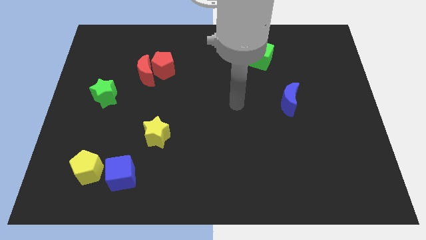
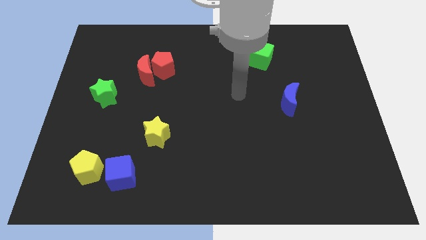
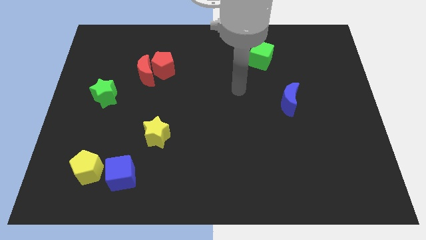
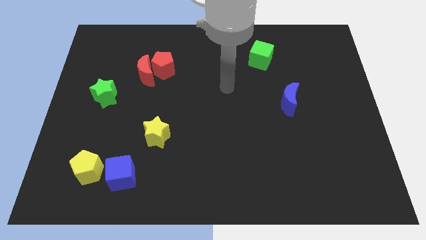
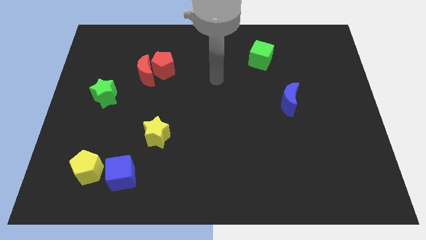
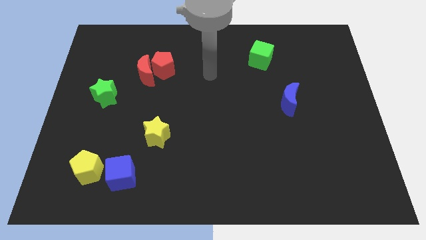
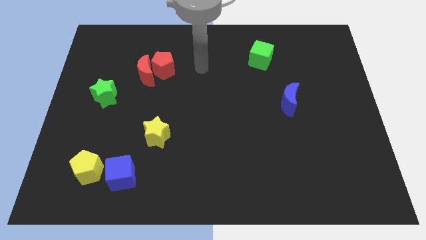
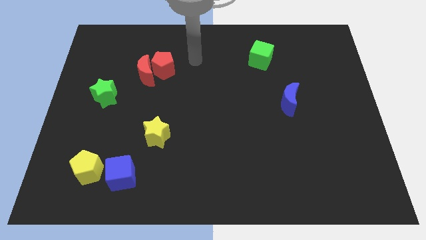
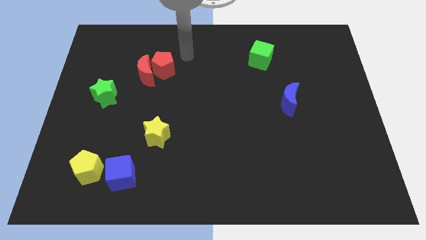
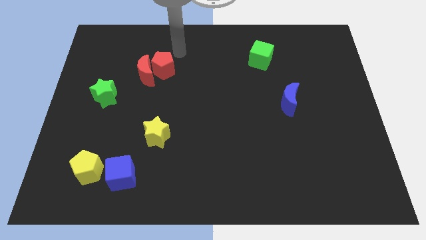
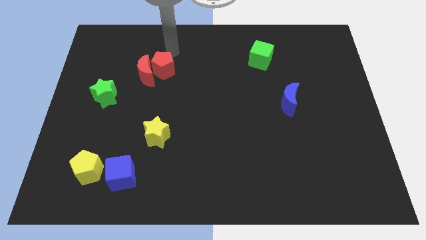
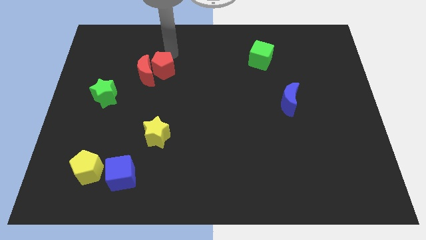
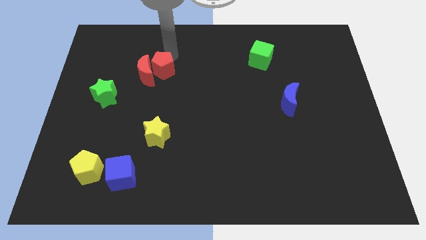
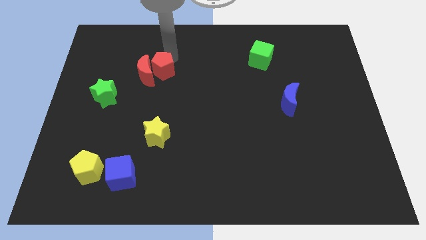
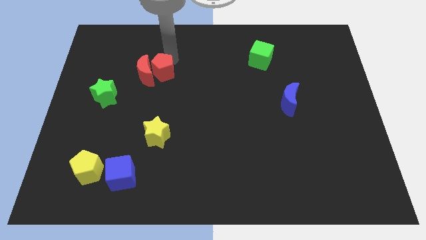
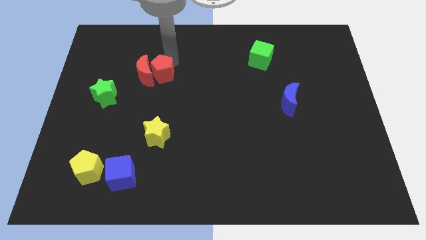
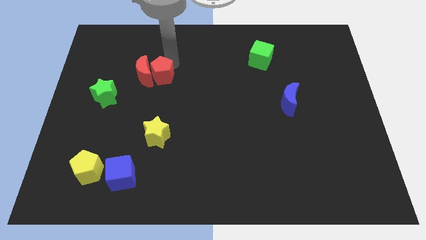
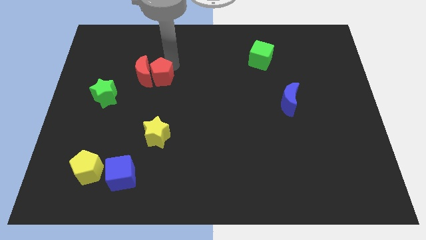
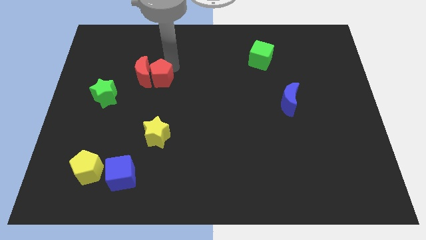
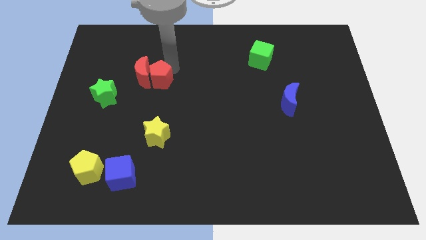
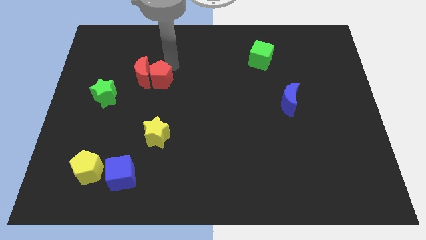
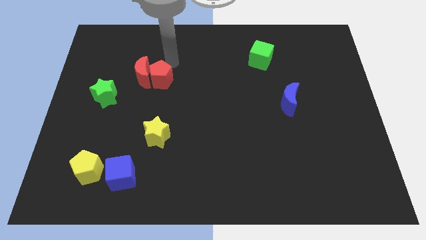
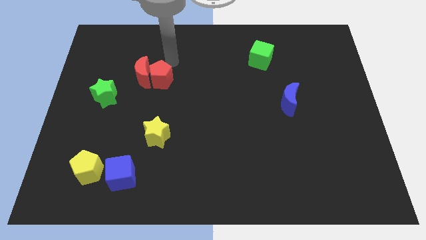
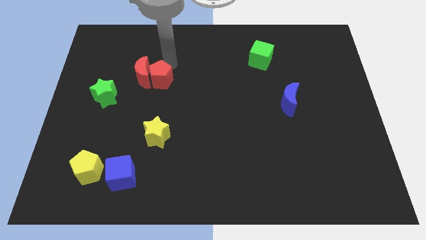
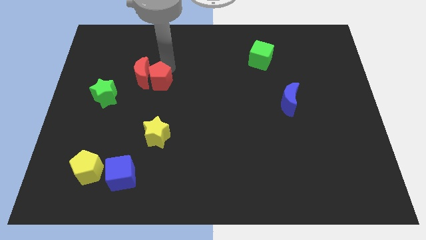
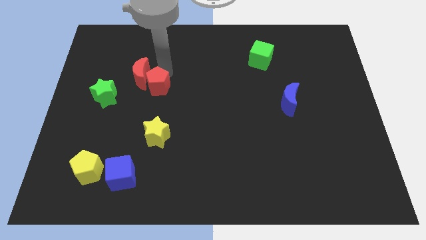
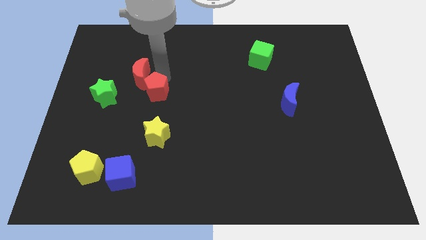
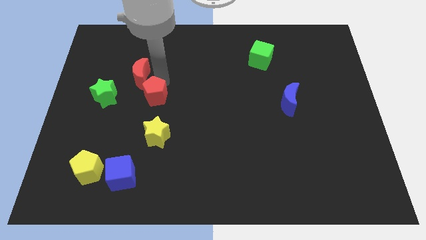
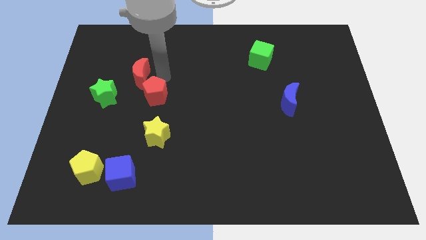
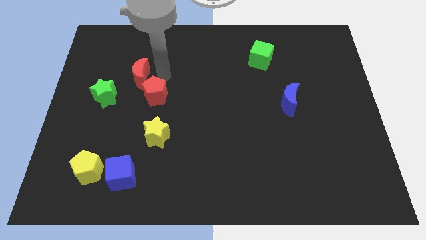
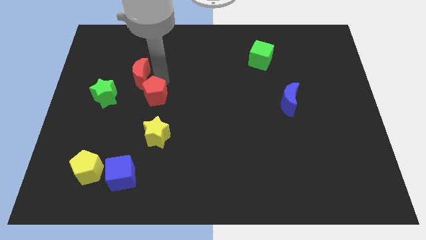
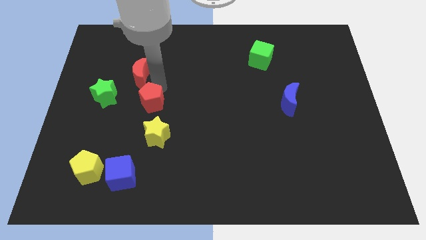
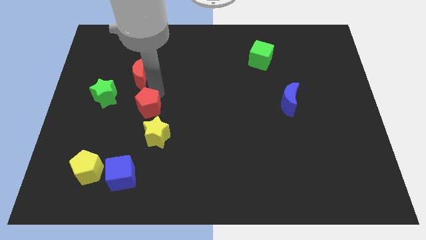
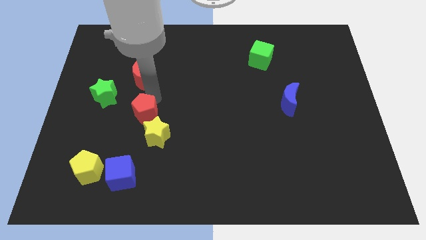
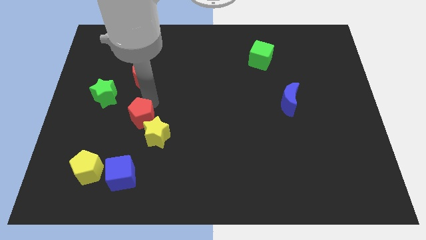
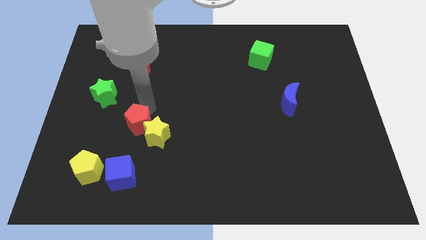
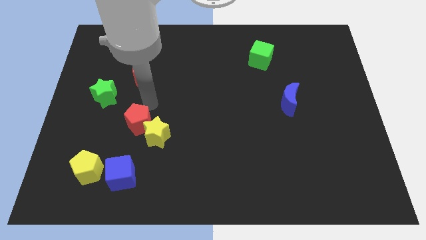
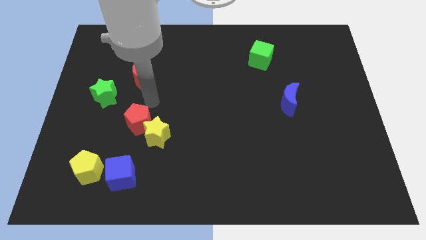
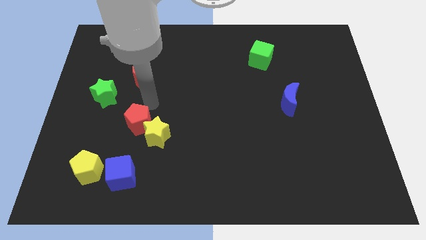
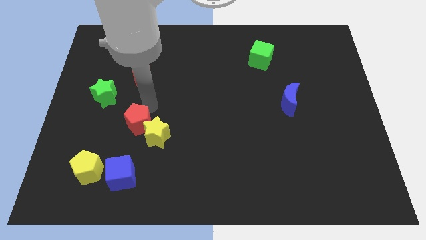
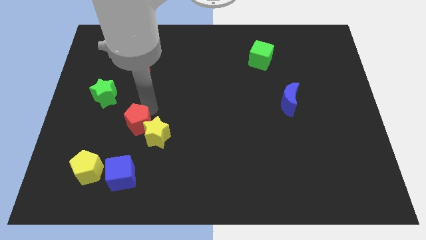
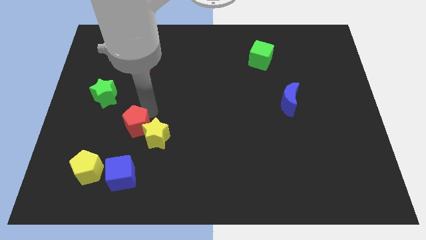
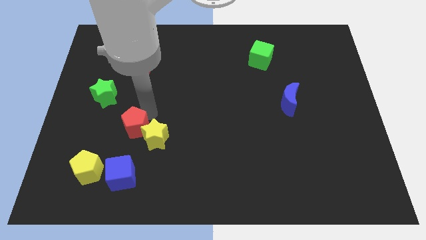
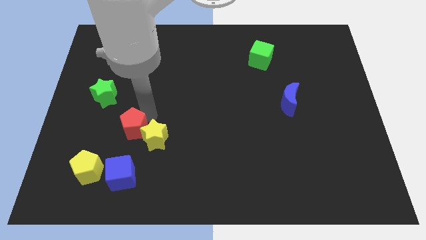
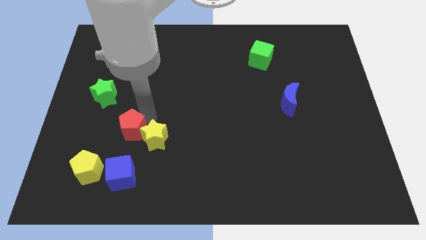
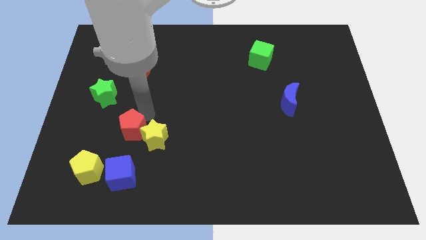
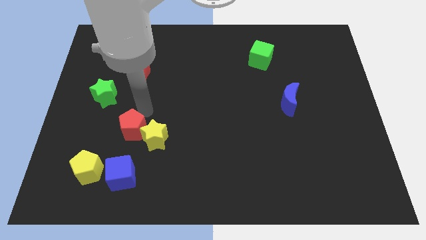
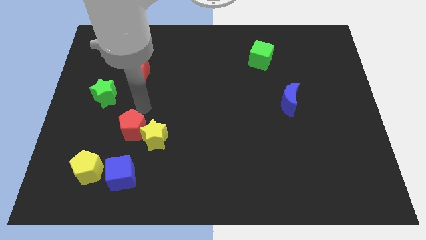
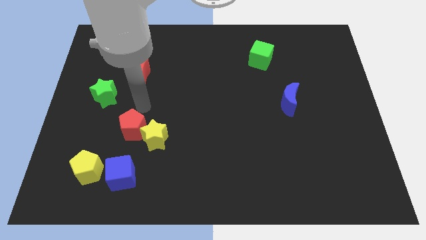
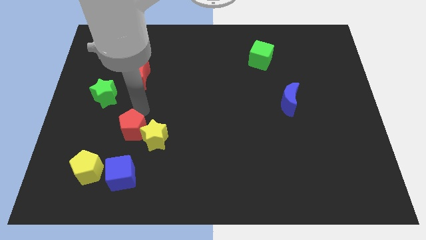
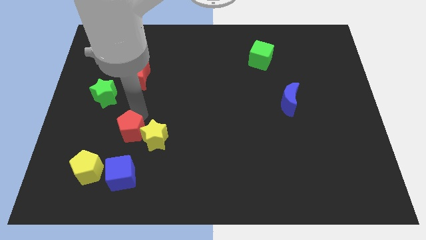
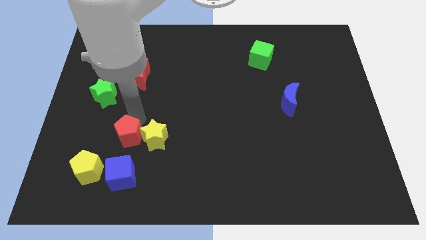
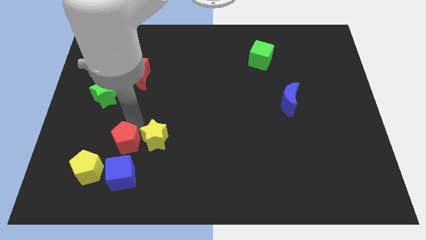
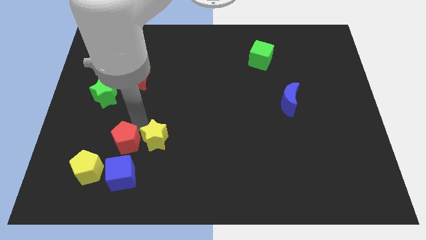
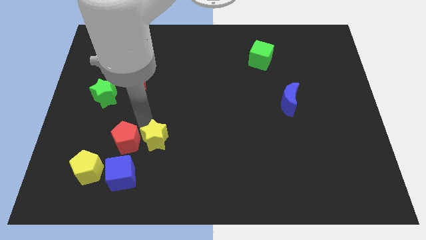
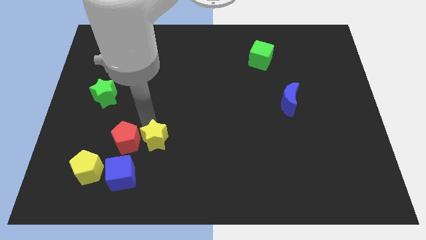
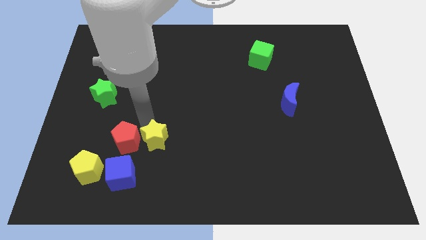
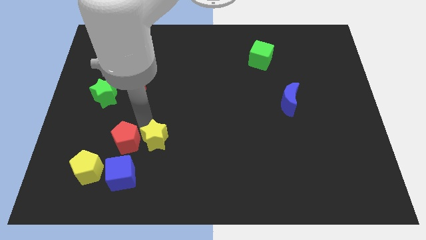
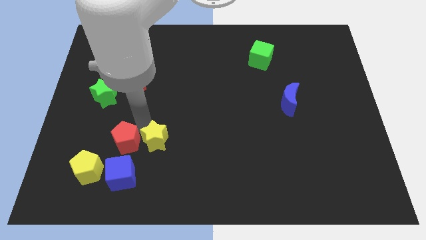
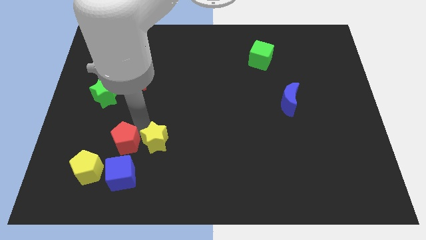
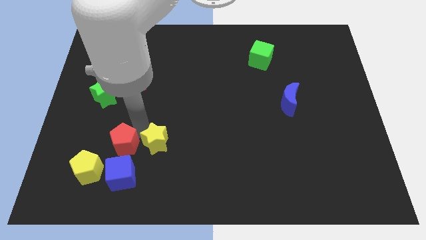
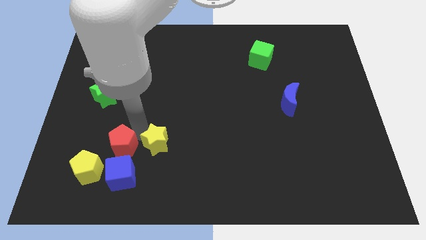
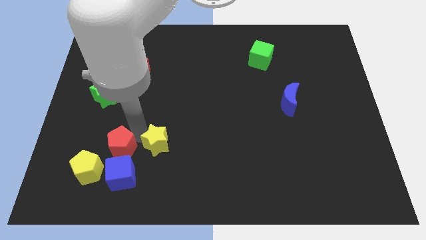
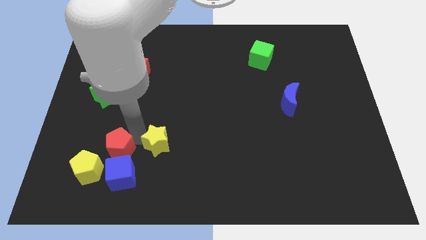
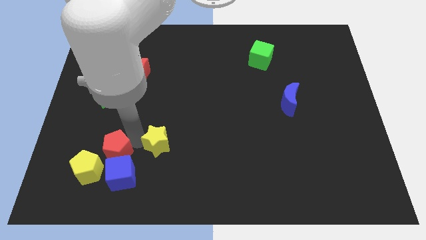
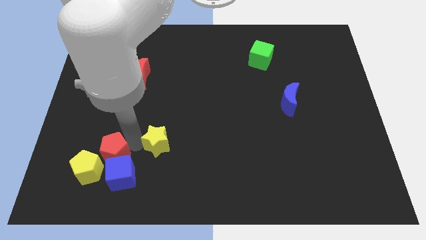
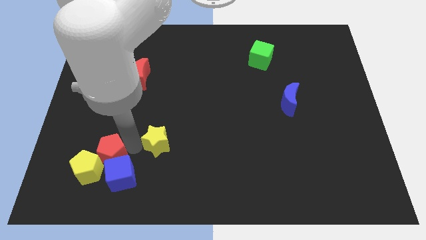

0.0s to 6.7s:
put the red pentagon close to the yellow pentagon
